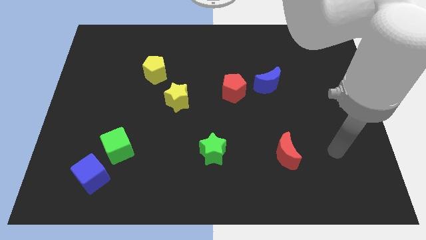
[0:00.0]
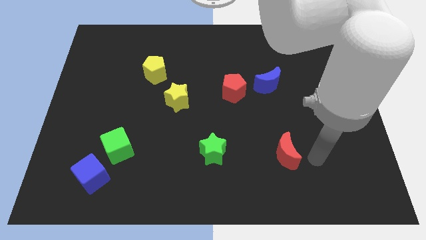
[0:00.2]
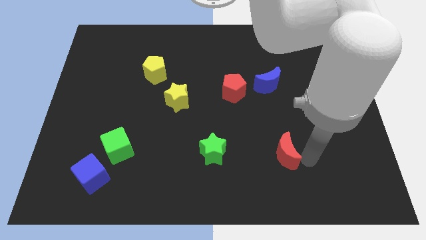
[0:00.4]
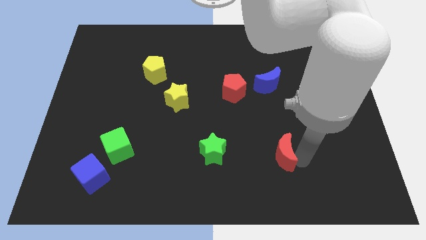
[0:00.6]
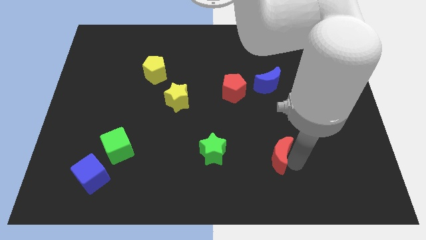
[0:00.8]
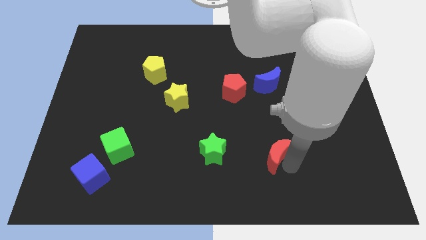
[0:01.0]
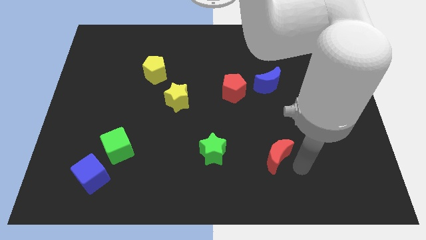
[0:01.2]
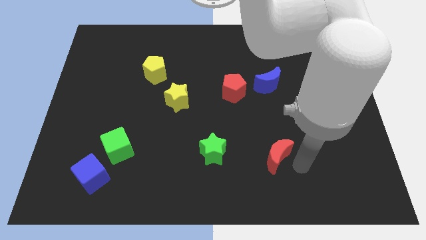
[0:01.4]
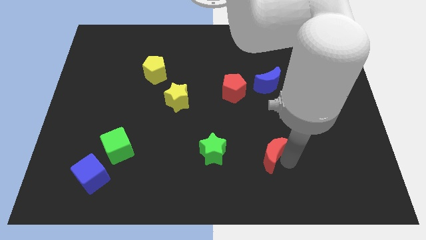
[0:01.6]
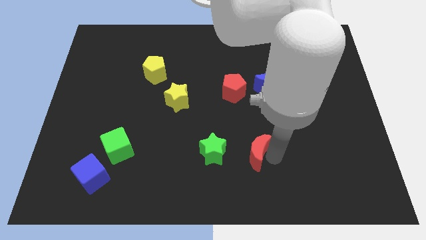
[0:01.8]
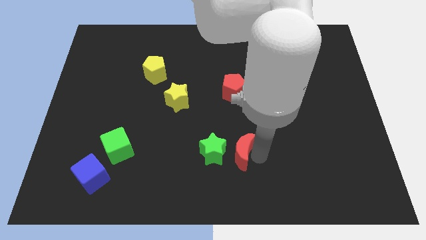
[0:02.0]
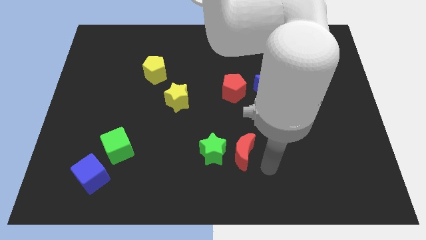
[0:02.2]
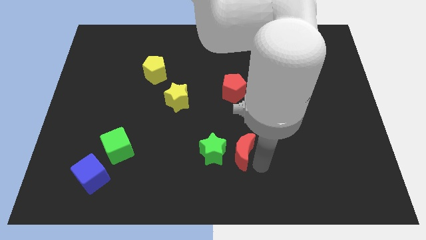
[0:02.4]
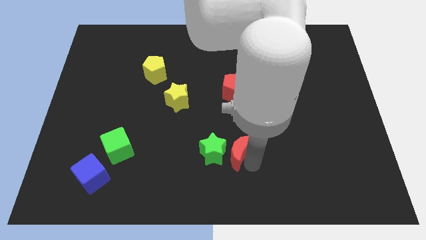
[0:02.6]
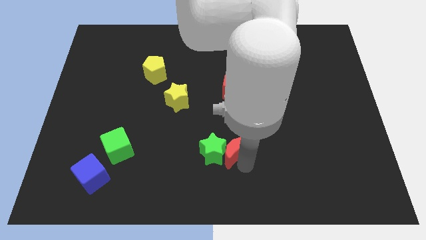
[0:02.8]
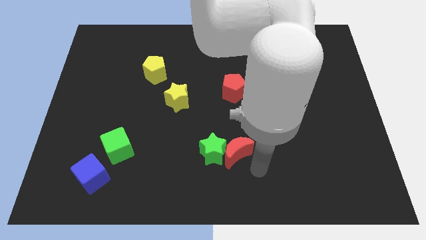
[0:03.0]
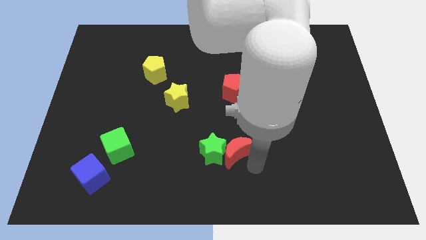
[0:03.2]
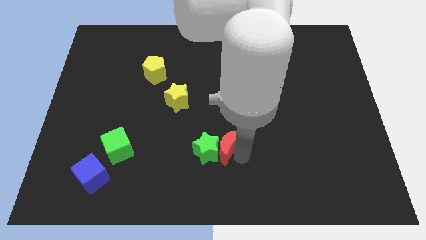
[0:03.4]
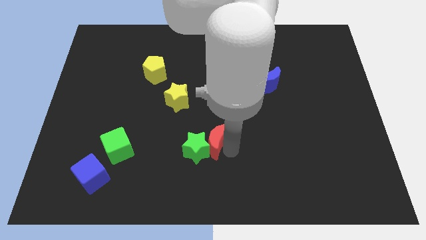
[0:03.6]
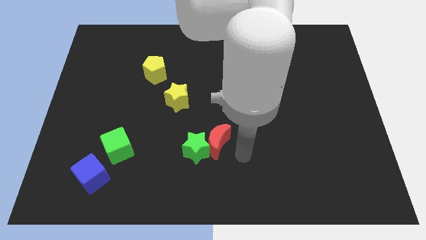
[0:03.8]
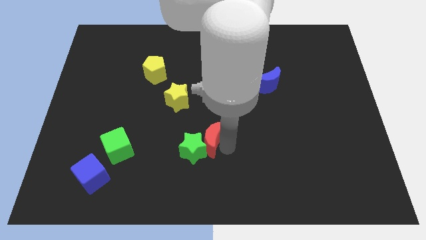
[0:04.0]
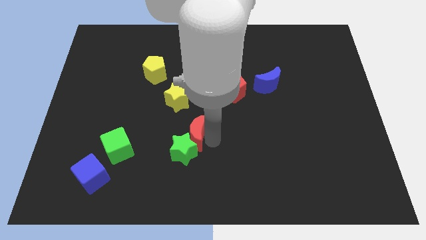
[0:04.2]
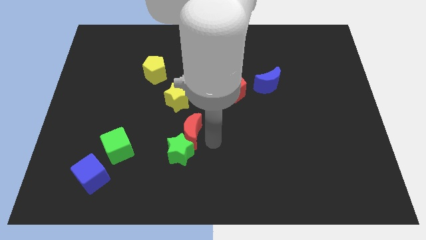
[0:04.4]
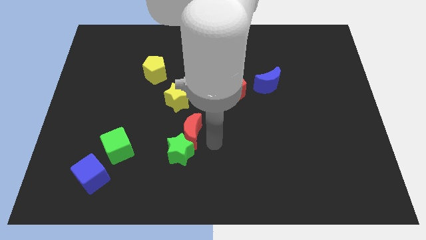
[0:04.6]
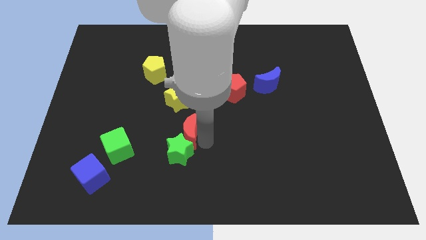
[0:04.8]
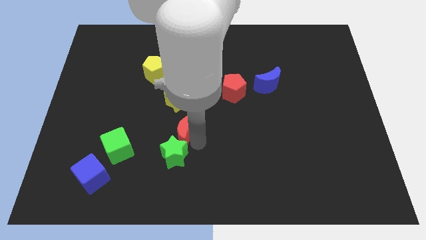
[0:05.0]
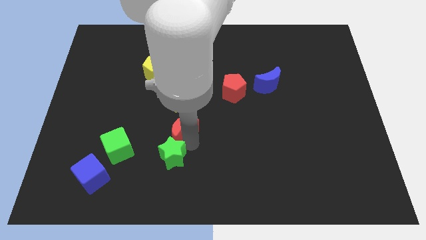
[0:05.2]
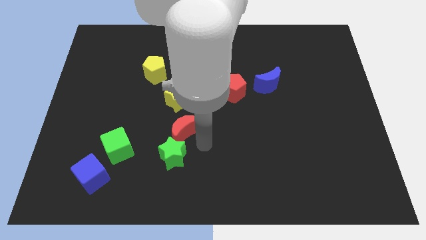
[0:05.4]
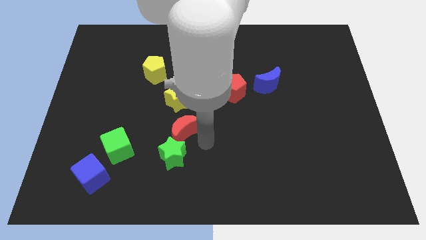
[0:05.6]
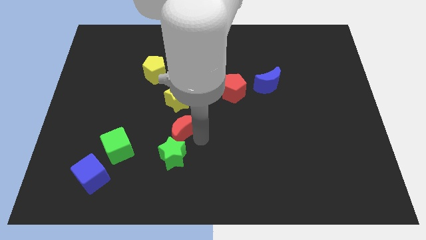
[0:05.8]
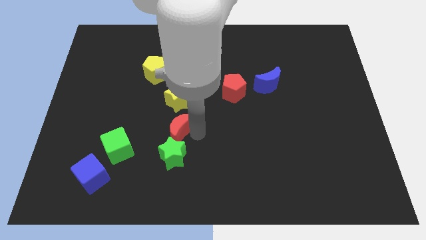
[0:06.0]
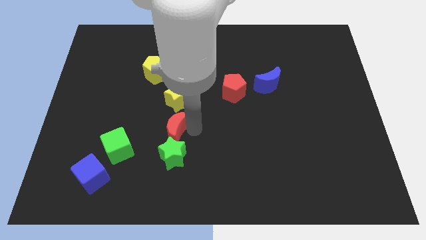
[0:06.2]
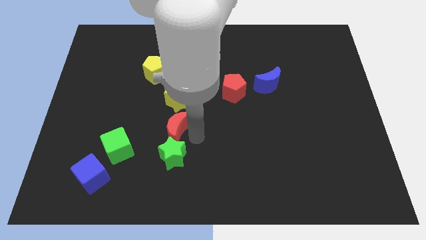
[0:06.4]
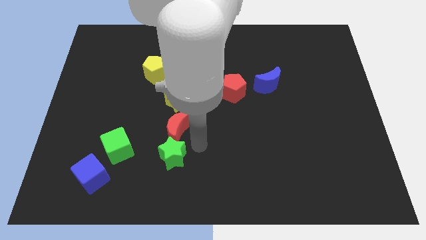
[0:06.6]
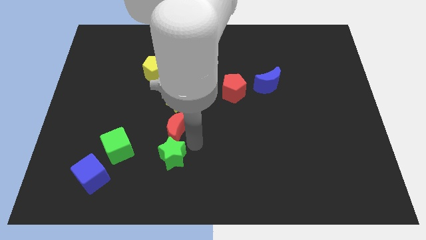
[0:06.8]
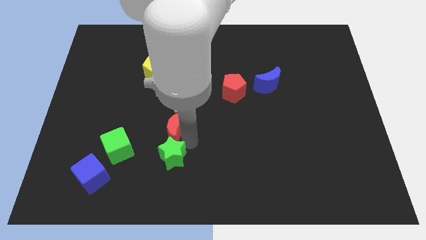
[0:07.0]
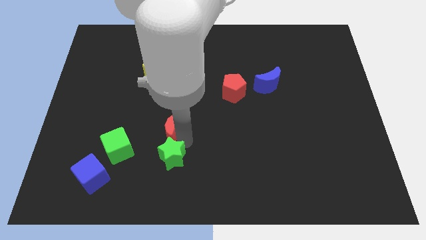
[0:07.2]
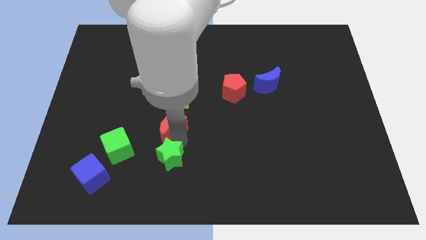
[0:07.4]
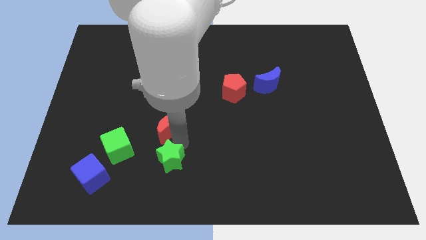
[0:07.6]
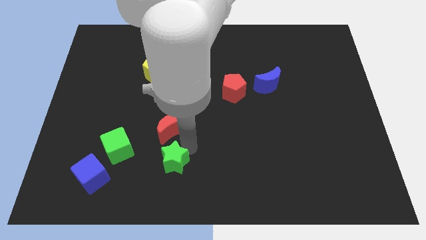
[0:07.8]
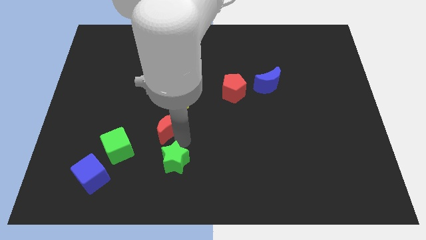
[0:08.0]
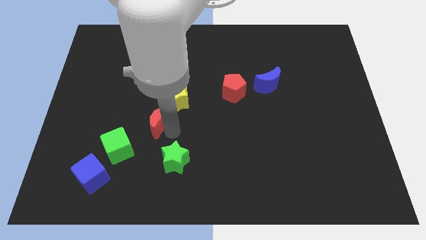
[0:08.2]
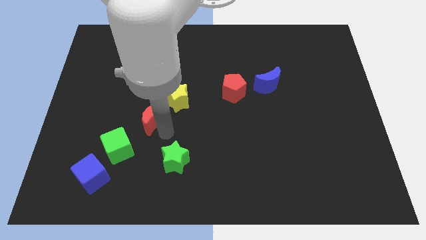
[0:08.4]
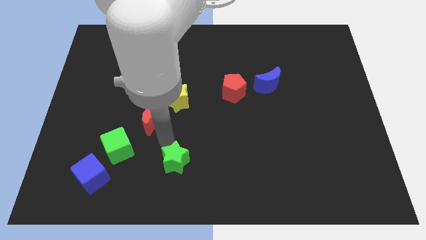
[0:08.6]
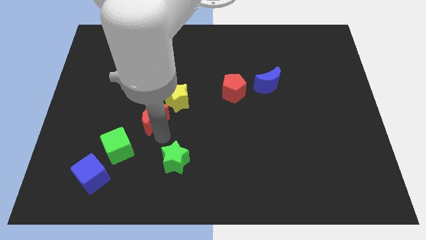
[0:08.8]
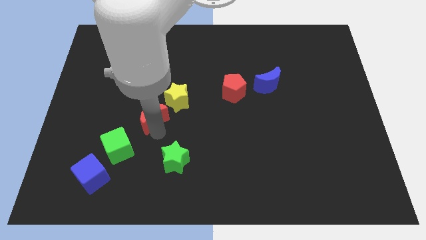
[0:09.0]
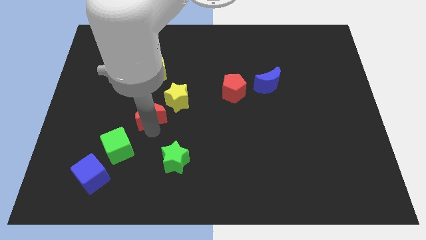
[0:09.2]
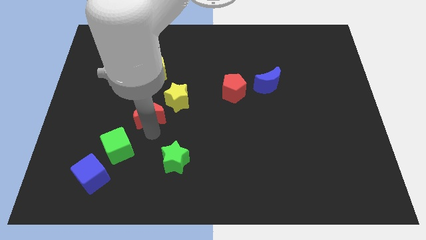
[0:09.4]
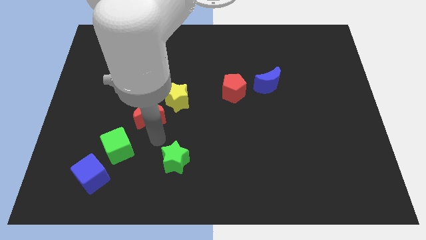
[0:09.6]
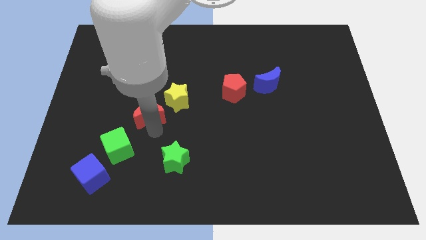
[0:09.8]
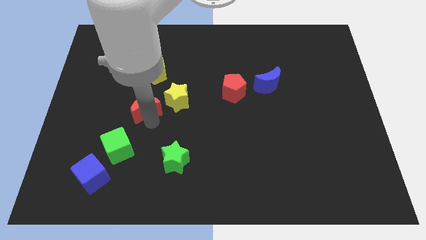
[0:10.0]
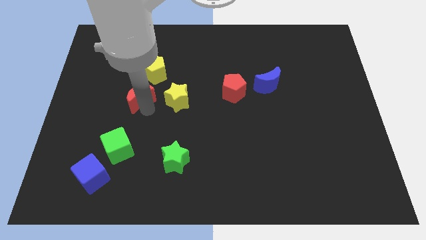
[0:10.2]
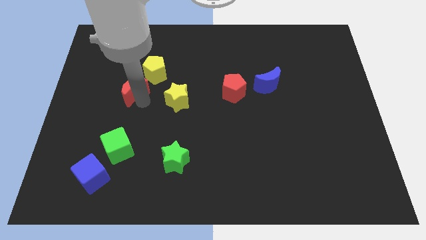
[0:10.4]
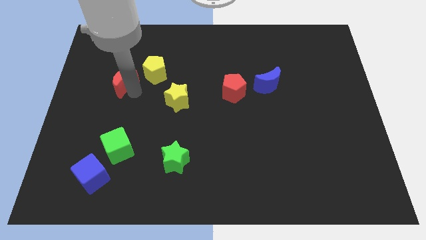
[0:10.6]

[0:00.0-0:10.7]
push the red moon to the left side of the yellow pentagon
